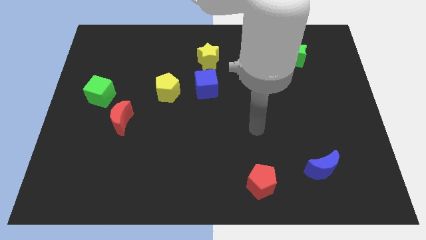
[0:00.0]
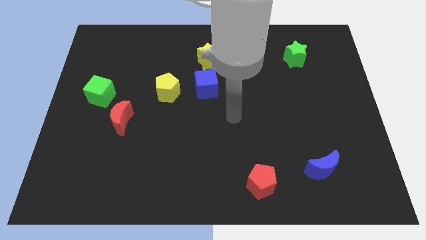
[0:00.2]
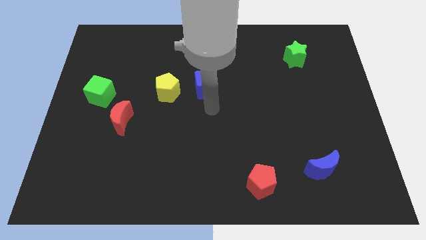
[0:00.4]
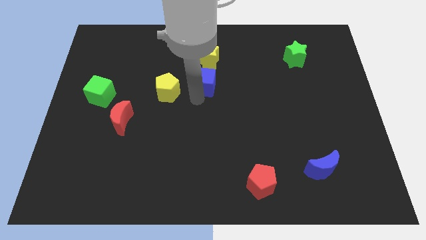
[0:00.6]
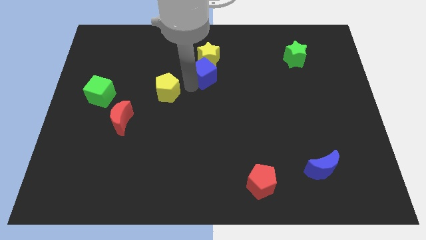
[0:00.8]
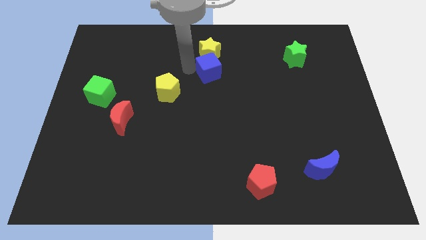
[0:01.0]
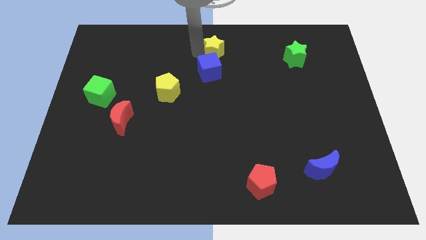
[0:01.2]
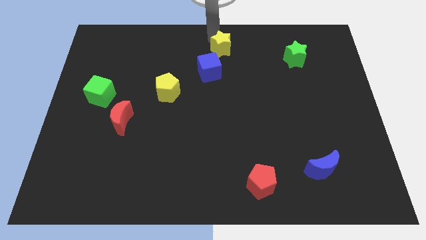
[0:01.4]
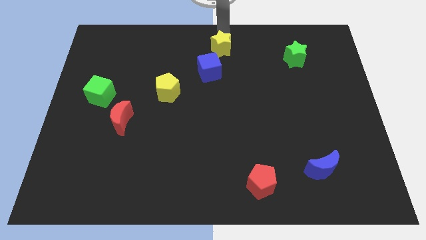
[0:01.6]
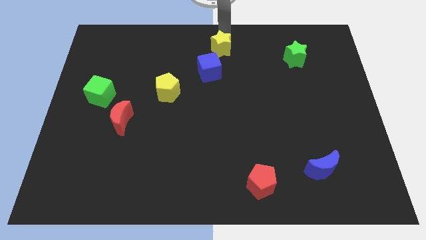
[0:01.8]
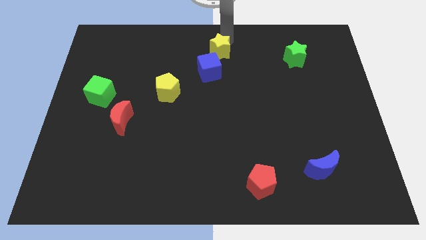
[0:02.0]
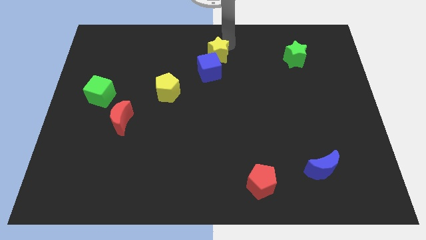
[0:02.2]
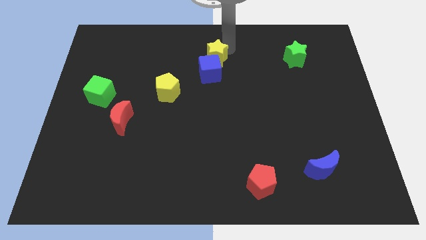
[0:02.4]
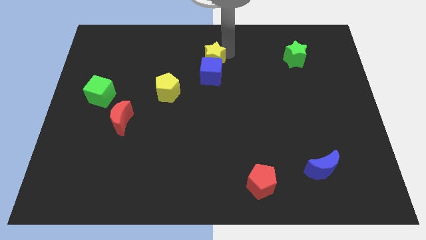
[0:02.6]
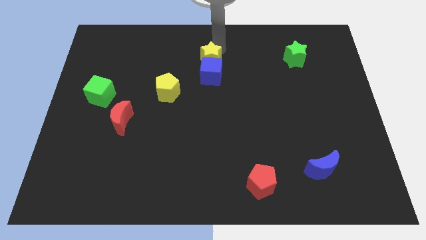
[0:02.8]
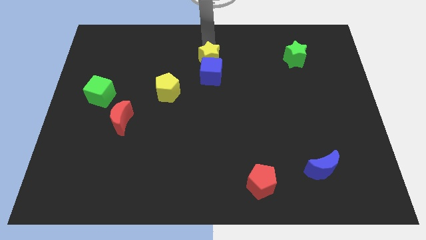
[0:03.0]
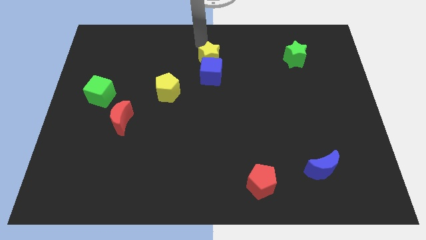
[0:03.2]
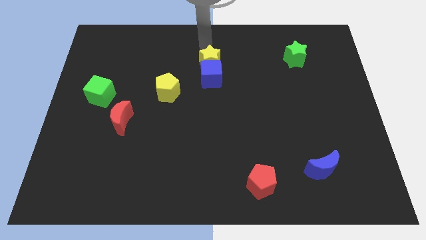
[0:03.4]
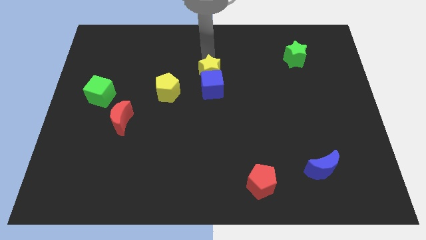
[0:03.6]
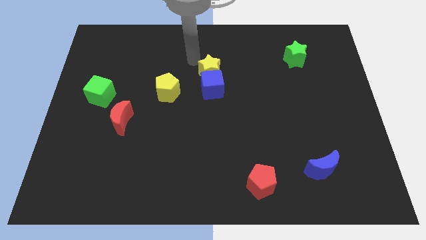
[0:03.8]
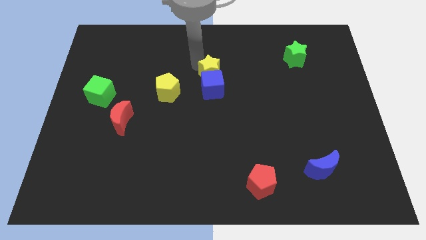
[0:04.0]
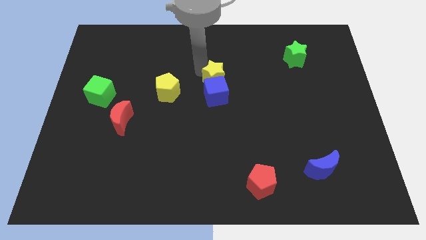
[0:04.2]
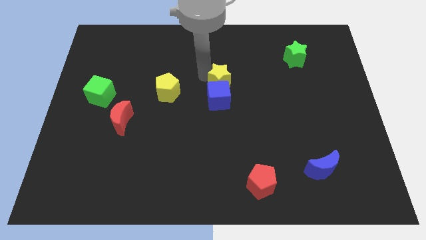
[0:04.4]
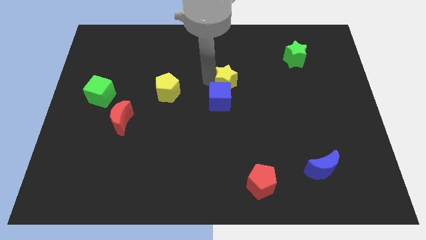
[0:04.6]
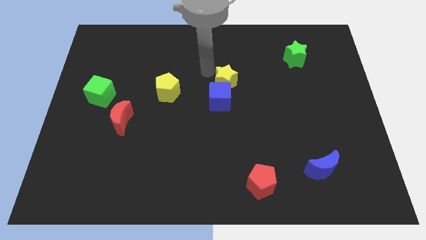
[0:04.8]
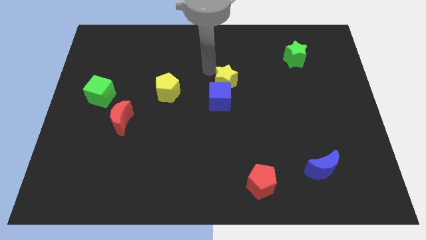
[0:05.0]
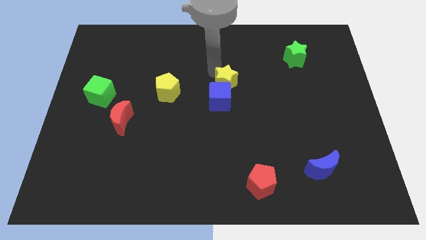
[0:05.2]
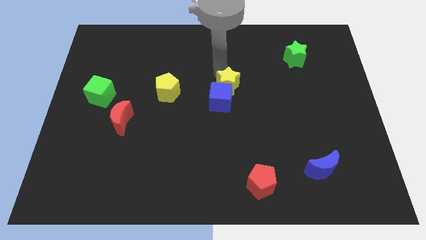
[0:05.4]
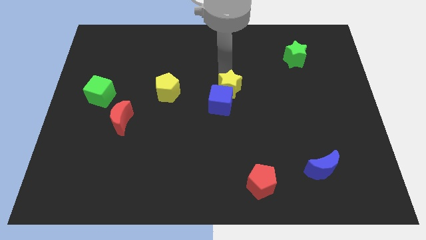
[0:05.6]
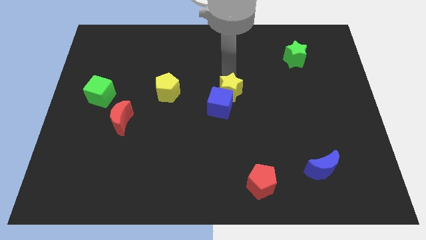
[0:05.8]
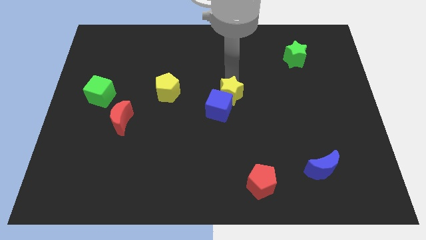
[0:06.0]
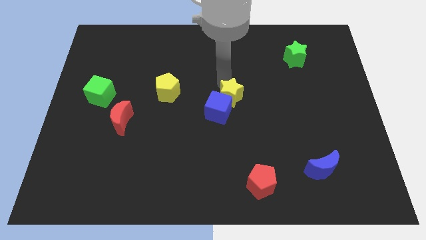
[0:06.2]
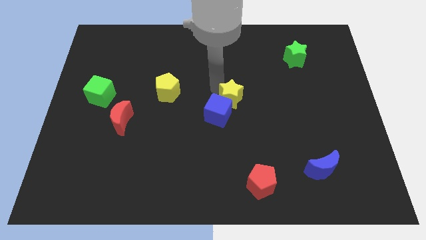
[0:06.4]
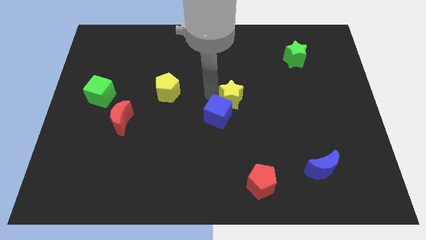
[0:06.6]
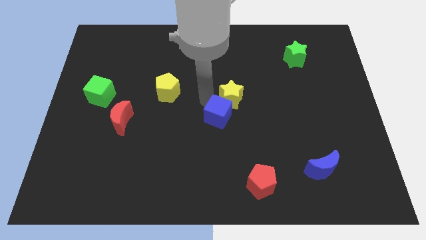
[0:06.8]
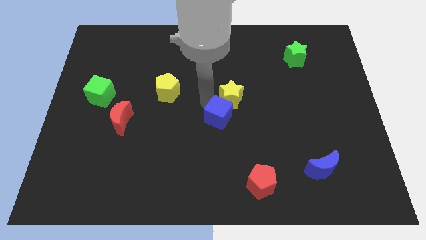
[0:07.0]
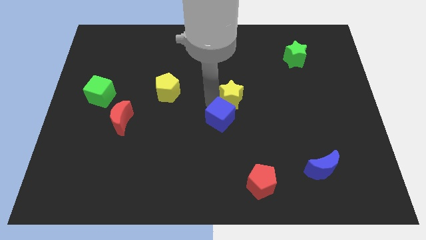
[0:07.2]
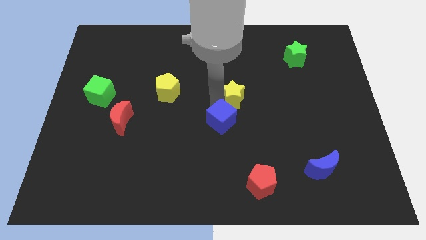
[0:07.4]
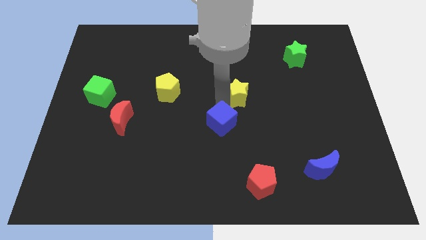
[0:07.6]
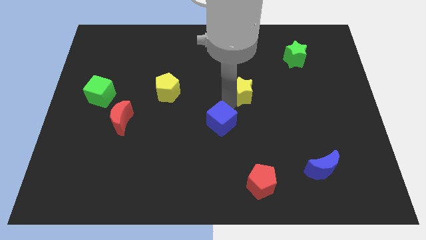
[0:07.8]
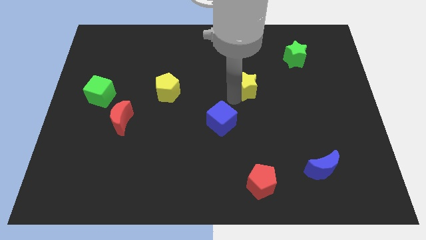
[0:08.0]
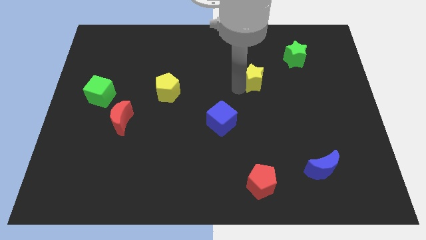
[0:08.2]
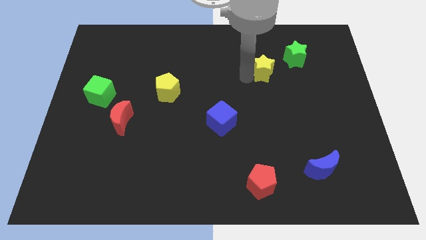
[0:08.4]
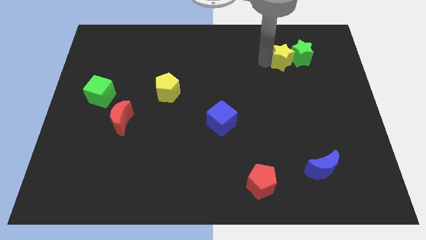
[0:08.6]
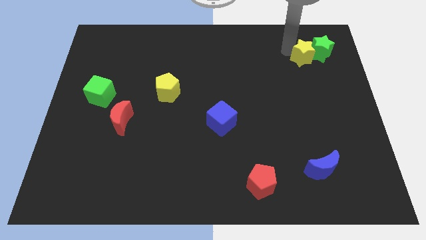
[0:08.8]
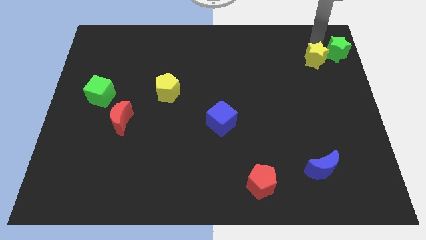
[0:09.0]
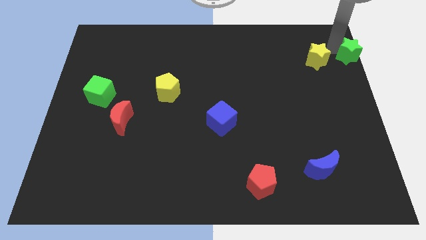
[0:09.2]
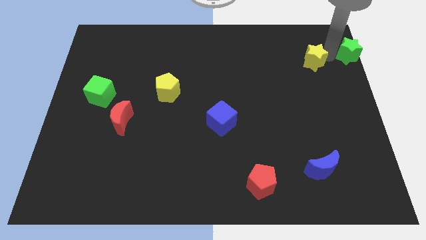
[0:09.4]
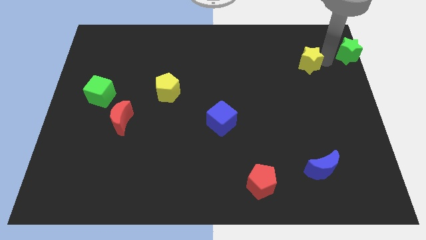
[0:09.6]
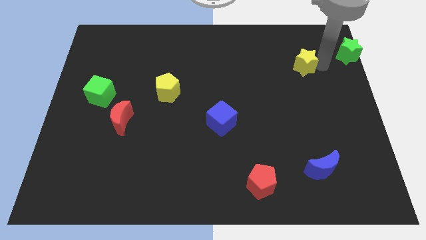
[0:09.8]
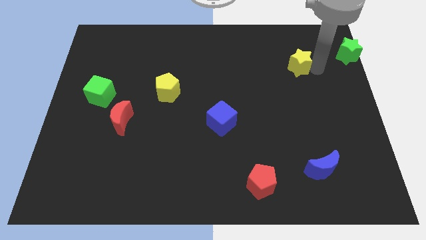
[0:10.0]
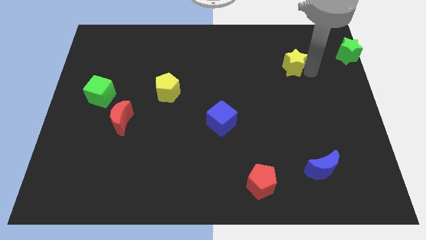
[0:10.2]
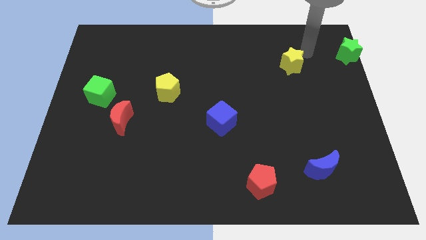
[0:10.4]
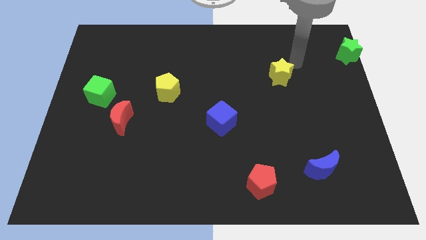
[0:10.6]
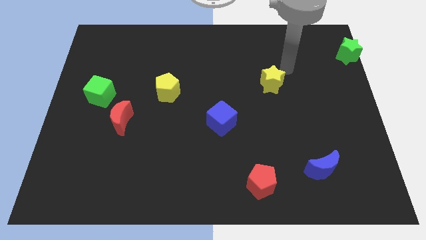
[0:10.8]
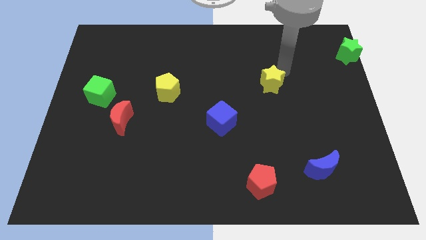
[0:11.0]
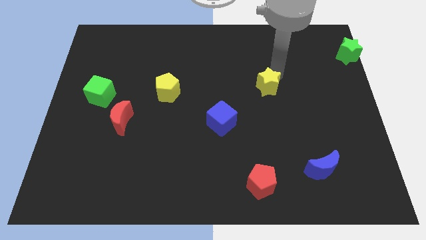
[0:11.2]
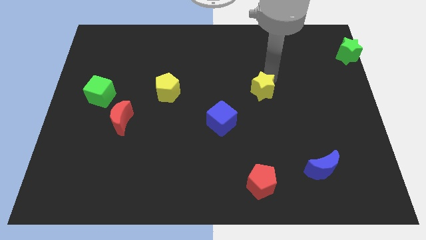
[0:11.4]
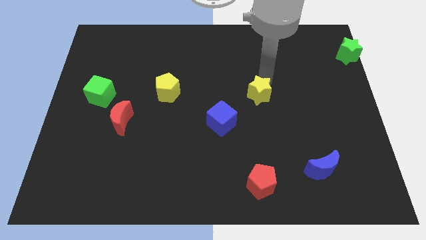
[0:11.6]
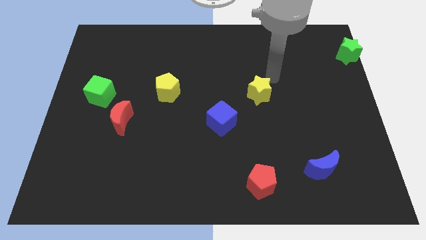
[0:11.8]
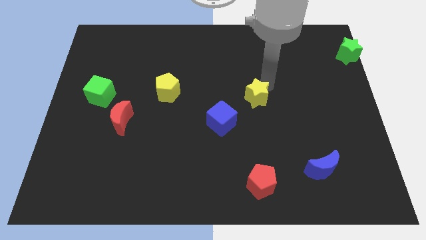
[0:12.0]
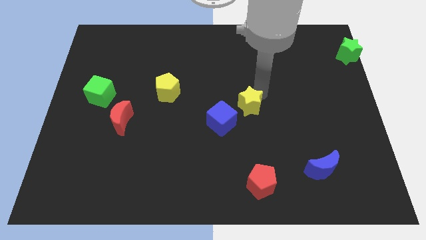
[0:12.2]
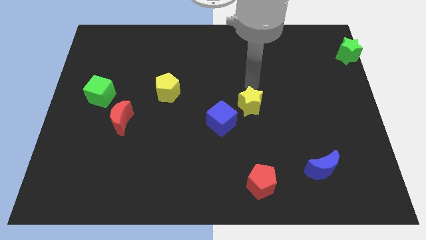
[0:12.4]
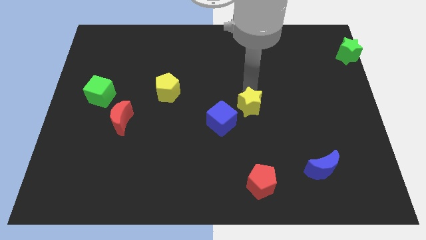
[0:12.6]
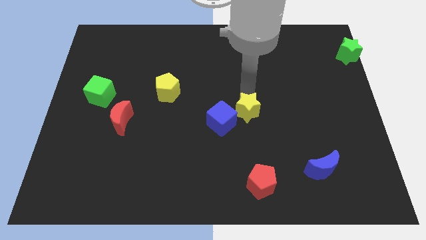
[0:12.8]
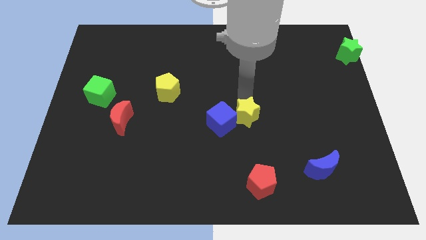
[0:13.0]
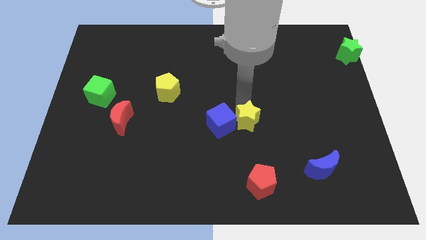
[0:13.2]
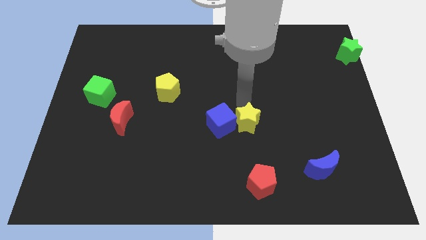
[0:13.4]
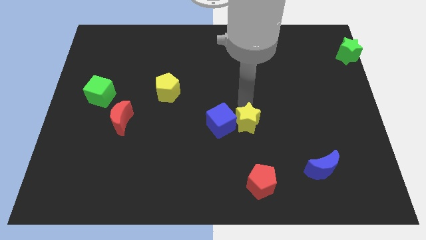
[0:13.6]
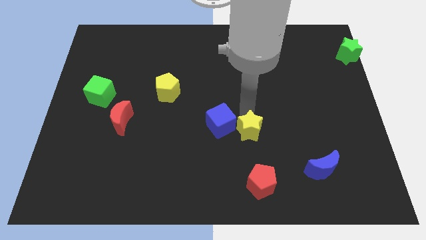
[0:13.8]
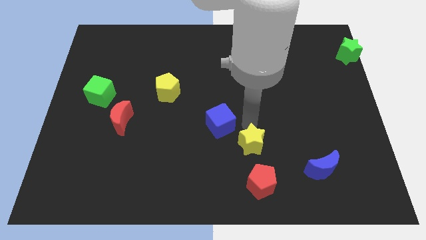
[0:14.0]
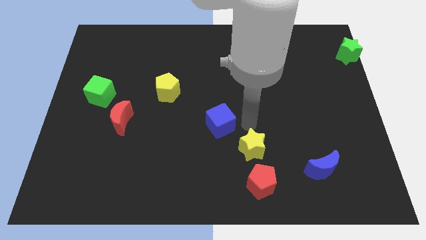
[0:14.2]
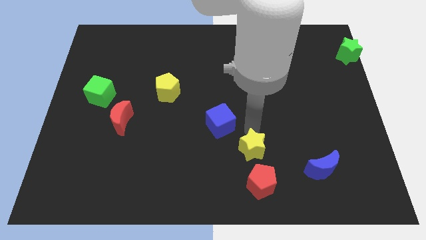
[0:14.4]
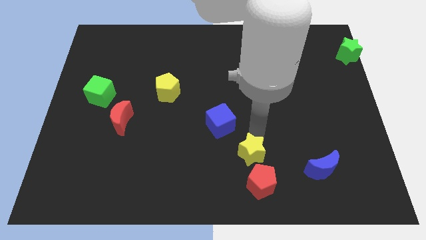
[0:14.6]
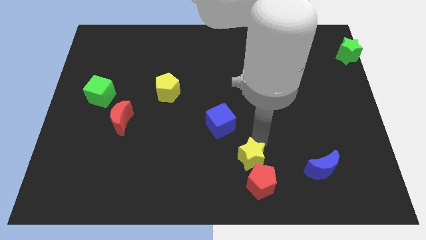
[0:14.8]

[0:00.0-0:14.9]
put the yellow star to the red pentagon

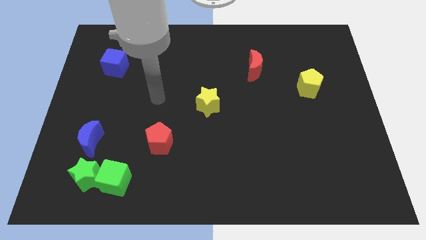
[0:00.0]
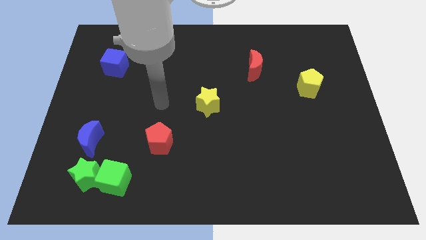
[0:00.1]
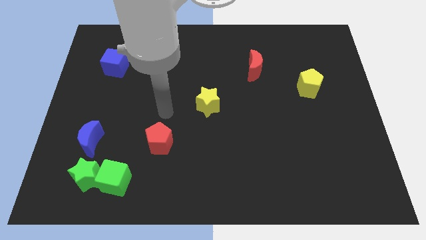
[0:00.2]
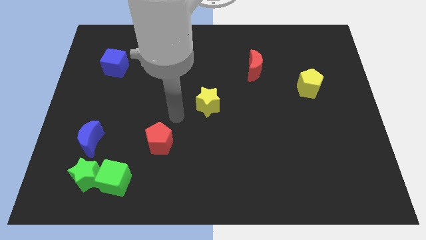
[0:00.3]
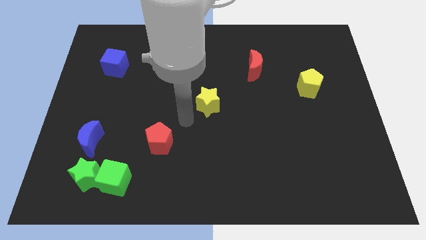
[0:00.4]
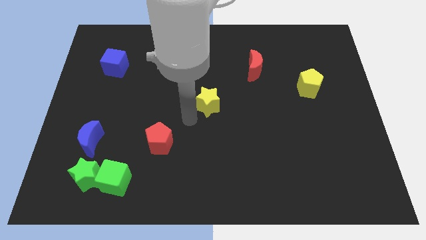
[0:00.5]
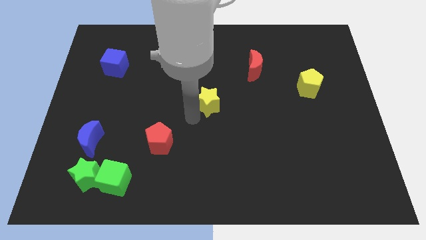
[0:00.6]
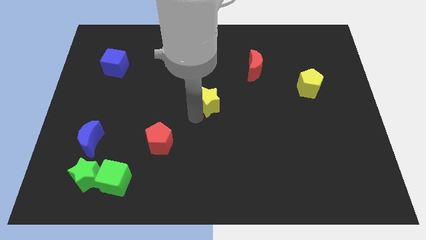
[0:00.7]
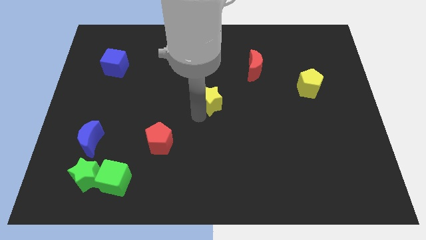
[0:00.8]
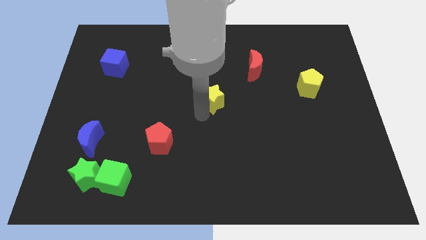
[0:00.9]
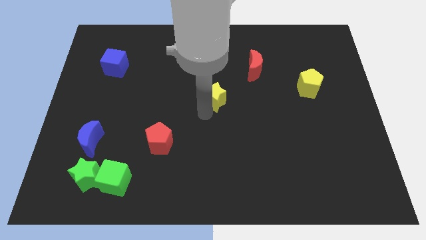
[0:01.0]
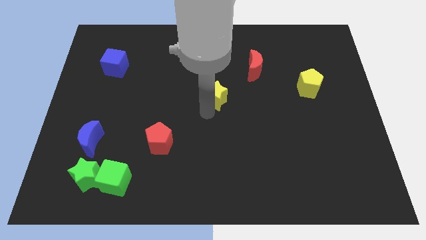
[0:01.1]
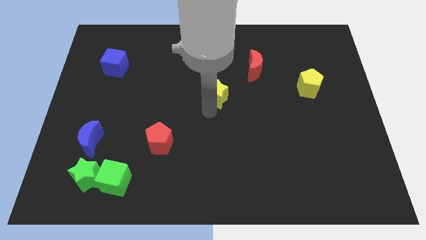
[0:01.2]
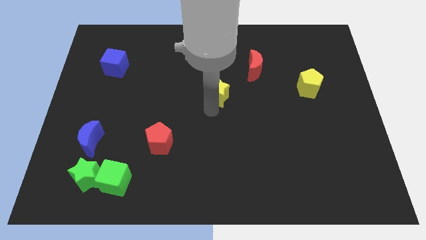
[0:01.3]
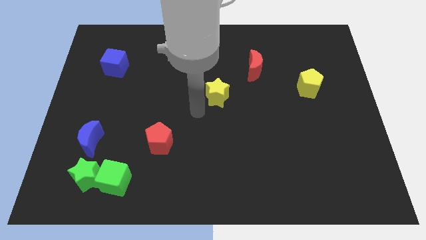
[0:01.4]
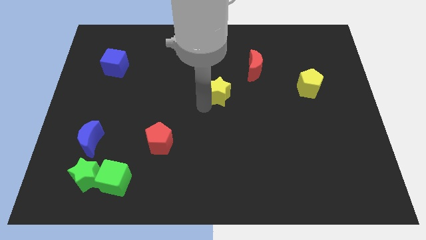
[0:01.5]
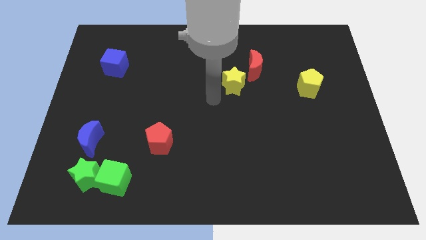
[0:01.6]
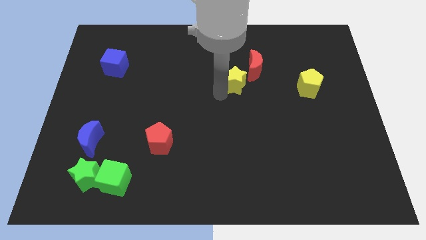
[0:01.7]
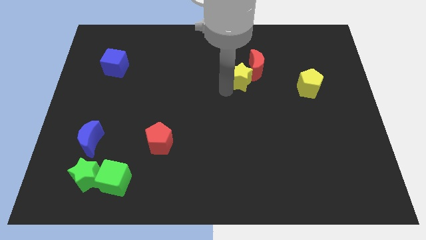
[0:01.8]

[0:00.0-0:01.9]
push the yellow star to the red moon
